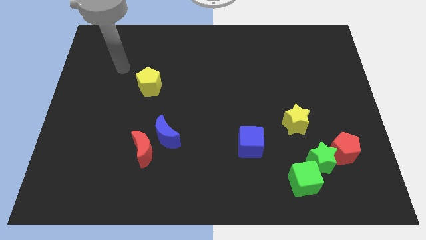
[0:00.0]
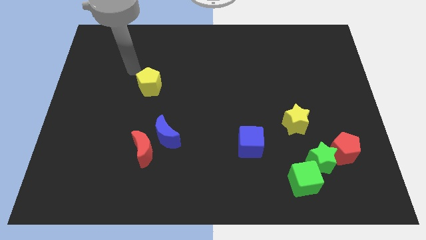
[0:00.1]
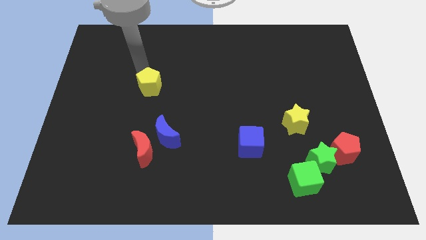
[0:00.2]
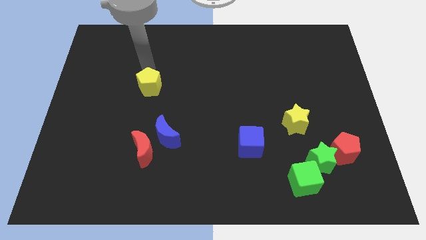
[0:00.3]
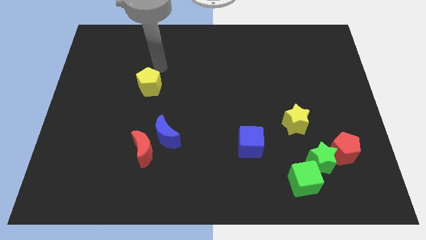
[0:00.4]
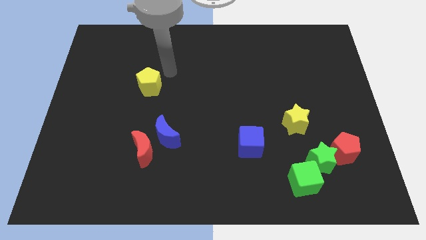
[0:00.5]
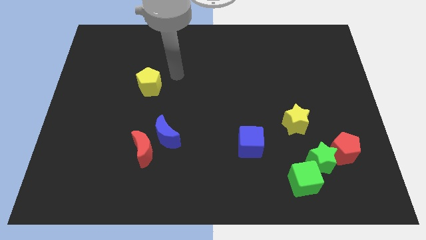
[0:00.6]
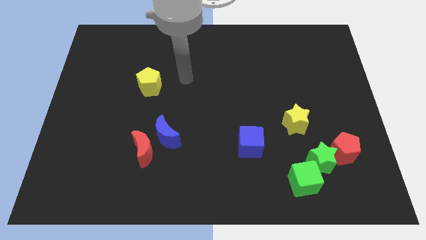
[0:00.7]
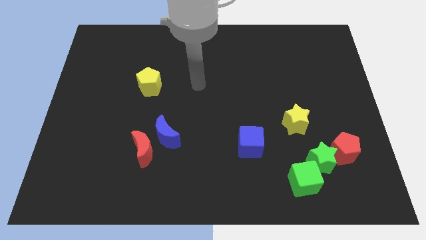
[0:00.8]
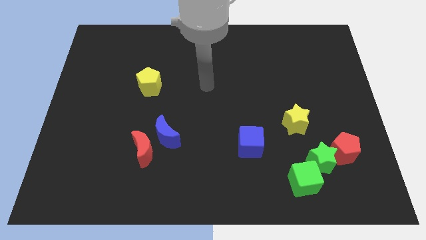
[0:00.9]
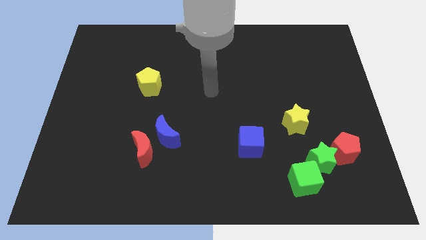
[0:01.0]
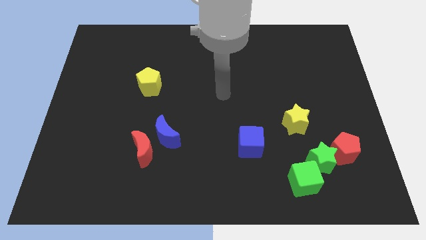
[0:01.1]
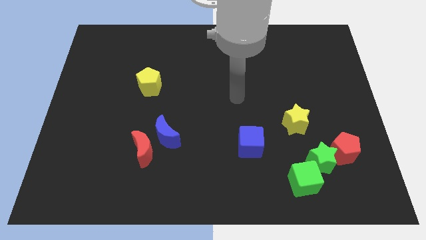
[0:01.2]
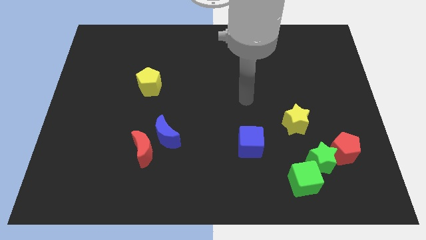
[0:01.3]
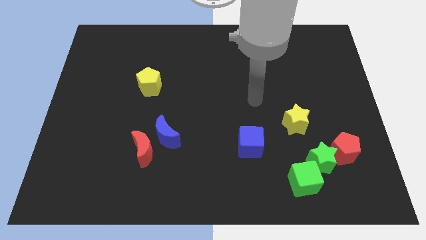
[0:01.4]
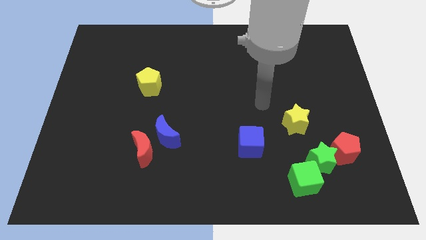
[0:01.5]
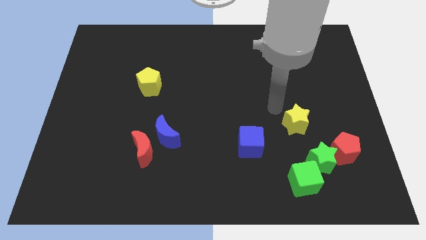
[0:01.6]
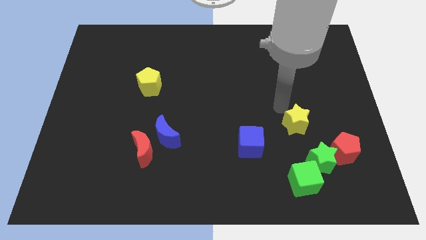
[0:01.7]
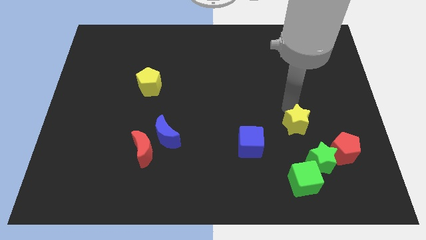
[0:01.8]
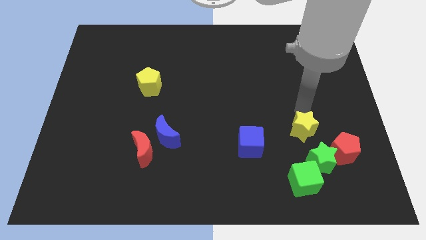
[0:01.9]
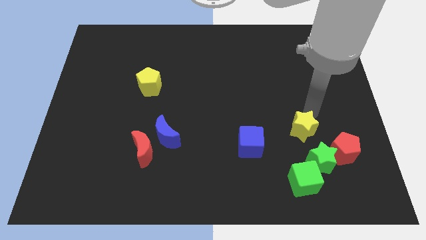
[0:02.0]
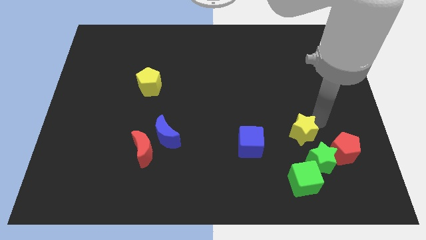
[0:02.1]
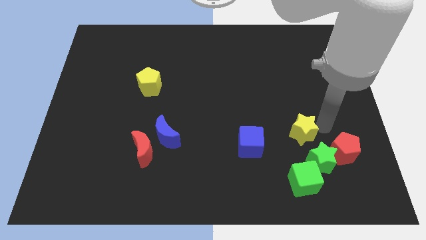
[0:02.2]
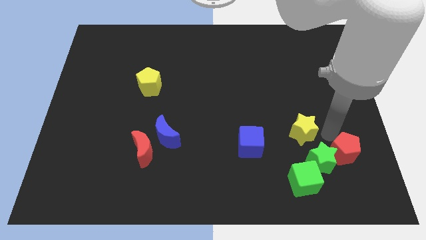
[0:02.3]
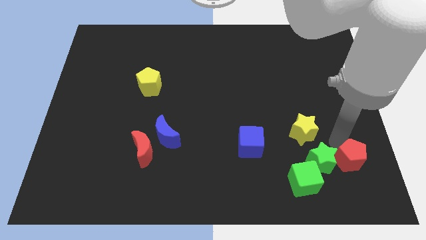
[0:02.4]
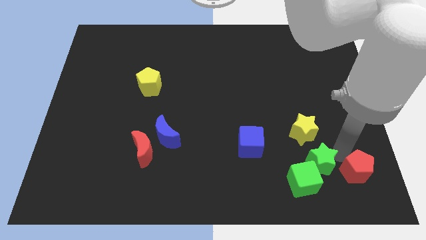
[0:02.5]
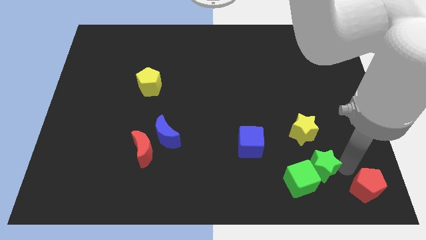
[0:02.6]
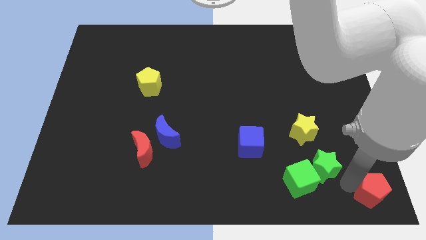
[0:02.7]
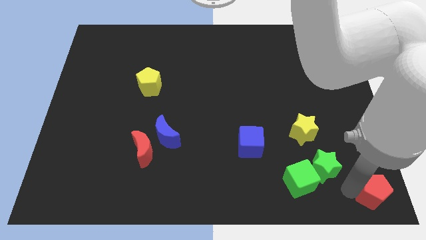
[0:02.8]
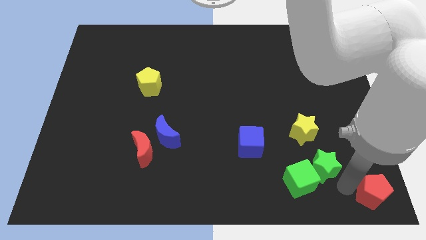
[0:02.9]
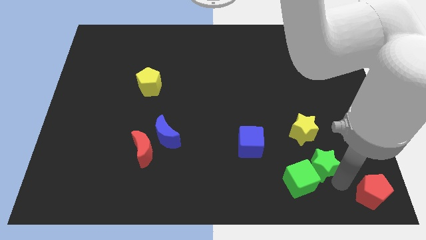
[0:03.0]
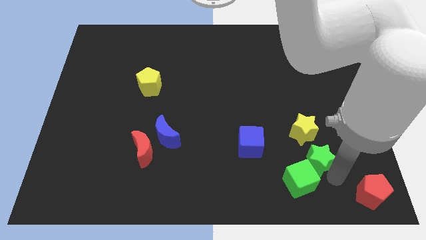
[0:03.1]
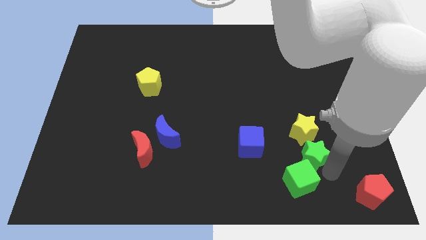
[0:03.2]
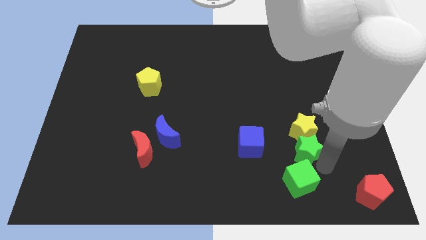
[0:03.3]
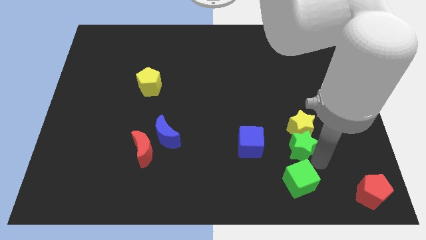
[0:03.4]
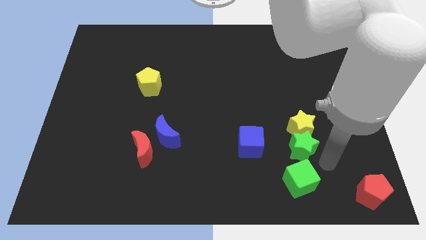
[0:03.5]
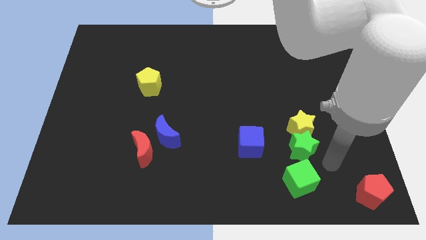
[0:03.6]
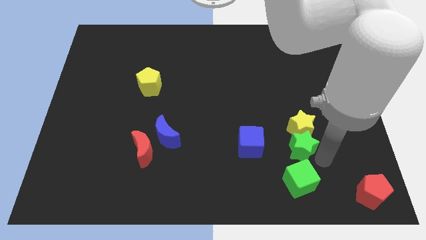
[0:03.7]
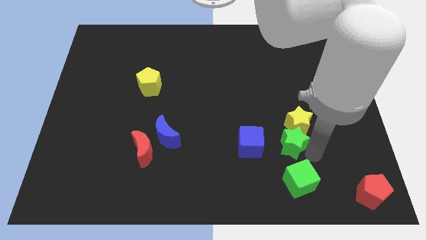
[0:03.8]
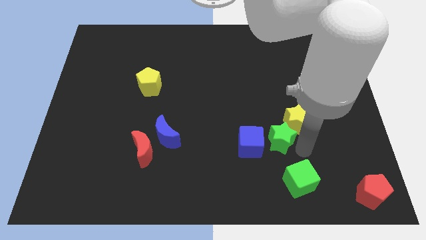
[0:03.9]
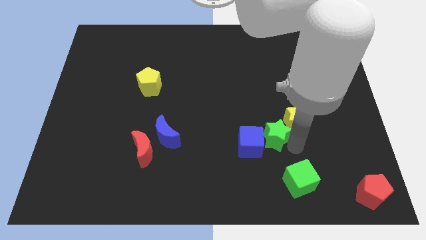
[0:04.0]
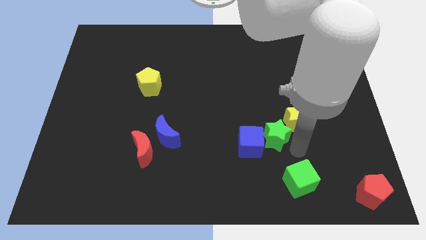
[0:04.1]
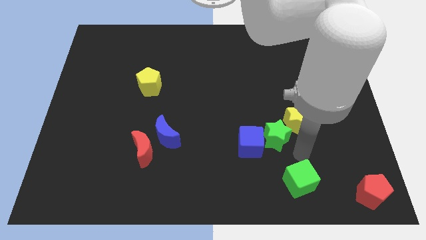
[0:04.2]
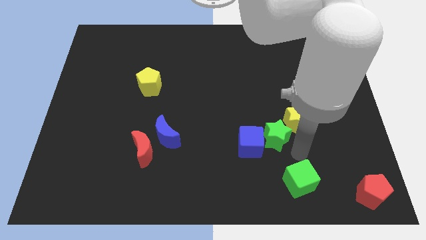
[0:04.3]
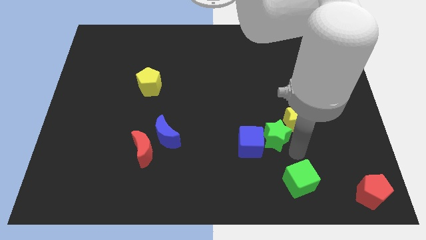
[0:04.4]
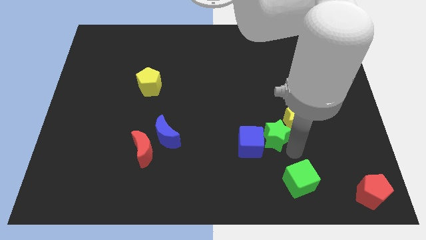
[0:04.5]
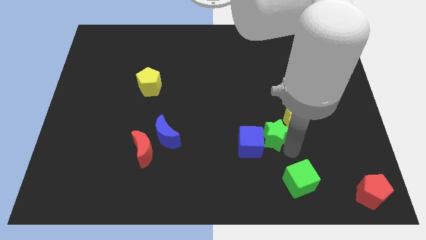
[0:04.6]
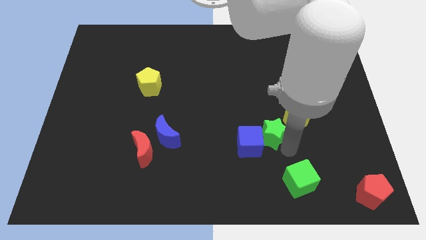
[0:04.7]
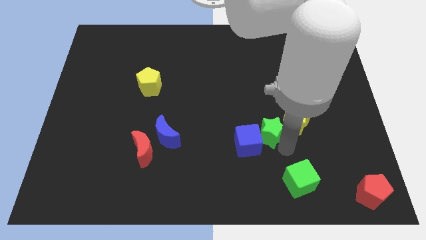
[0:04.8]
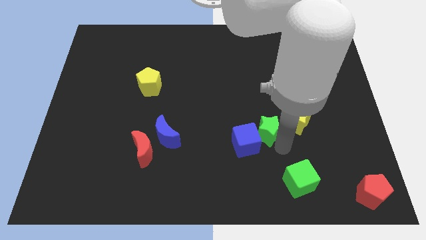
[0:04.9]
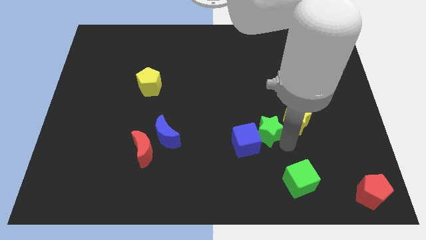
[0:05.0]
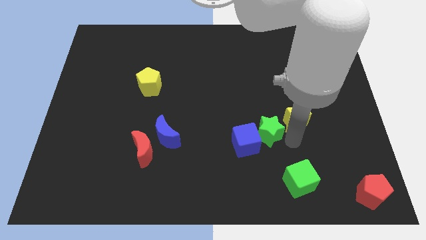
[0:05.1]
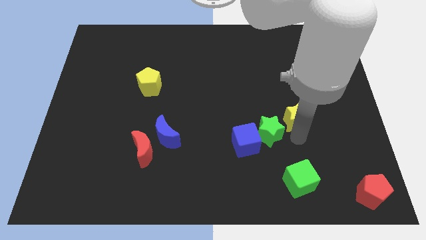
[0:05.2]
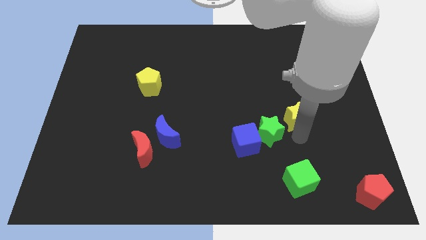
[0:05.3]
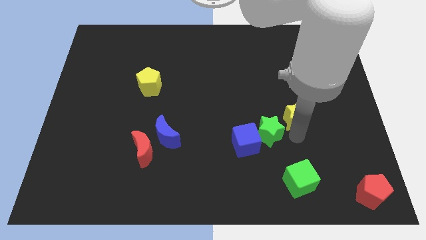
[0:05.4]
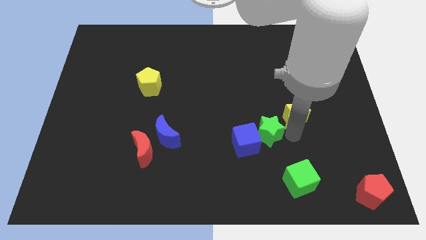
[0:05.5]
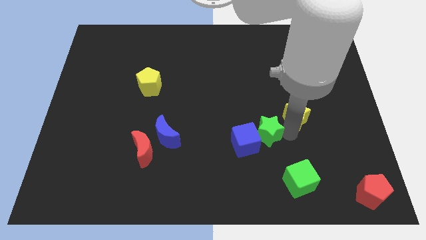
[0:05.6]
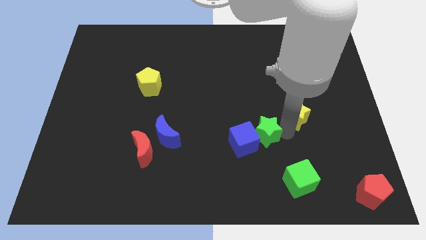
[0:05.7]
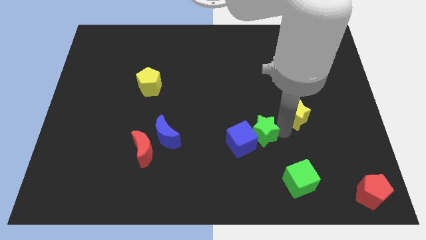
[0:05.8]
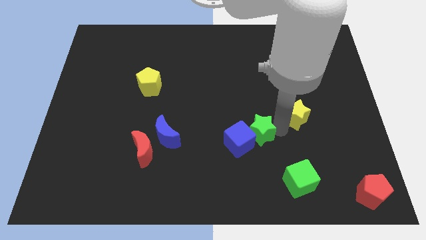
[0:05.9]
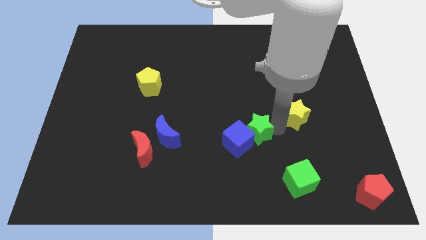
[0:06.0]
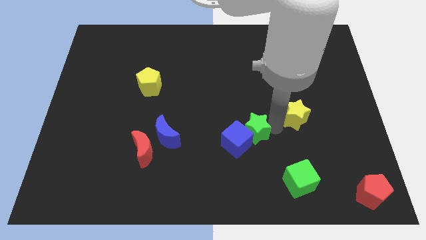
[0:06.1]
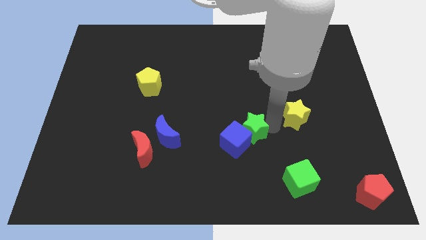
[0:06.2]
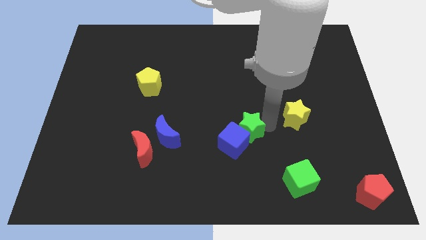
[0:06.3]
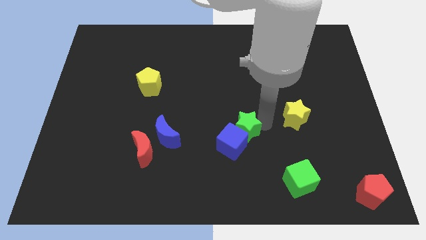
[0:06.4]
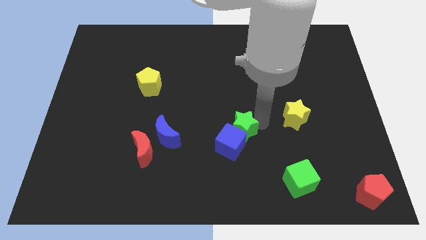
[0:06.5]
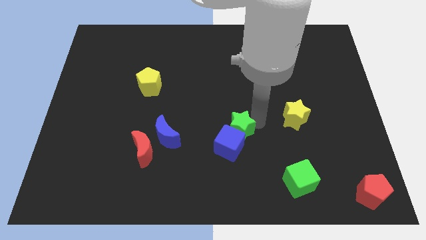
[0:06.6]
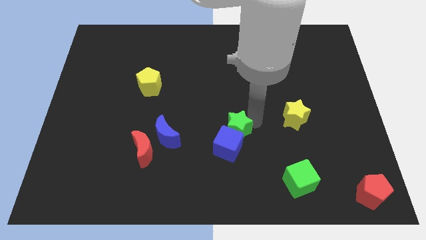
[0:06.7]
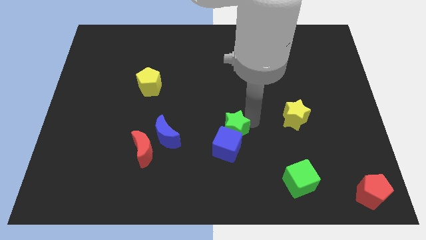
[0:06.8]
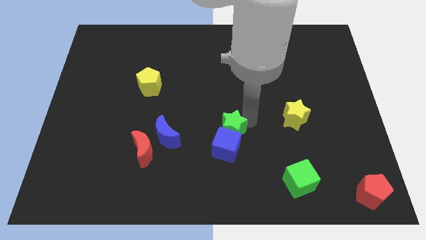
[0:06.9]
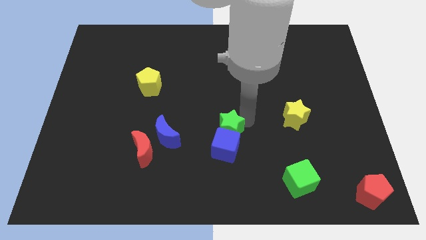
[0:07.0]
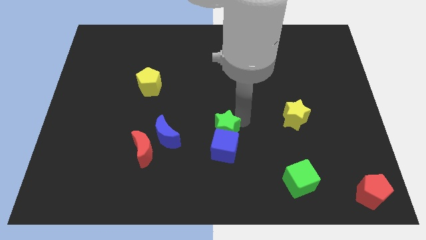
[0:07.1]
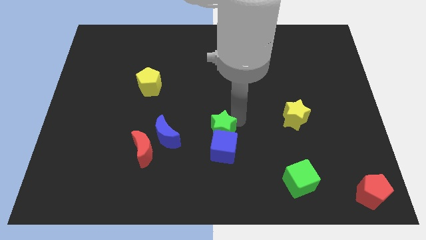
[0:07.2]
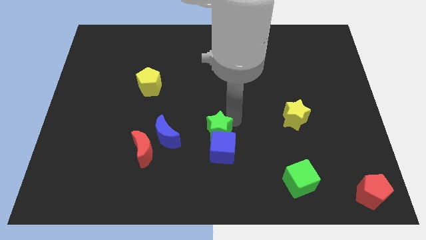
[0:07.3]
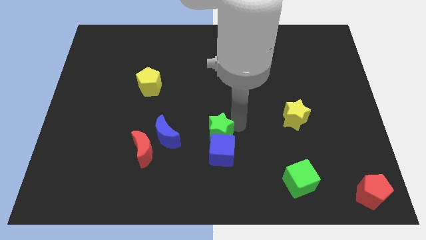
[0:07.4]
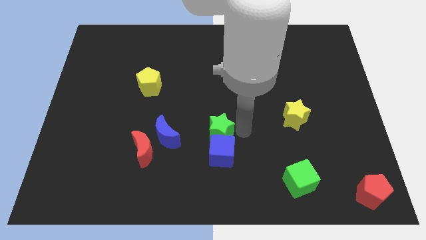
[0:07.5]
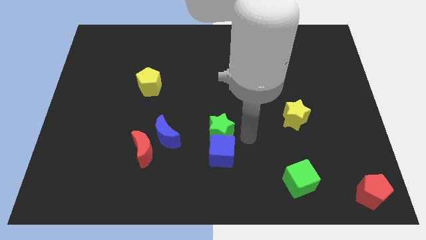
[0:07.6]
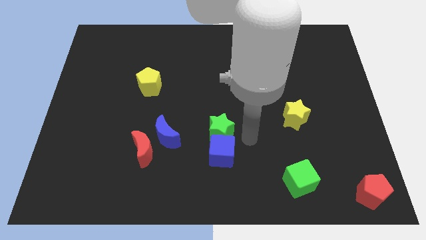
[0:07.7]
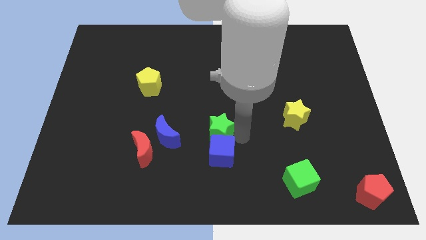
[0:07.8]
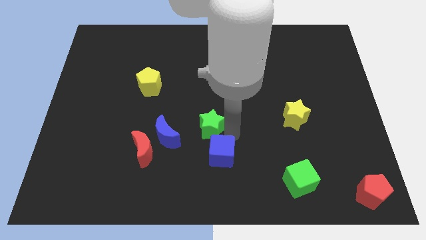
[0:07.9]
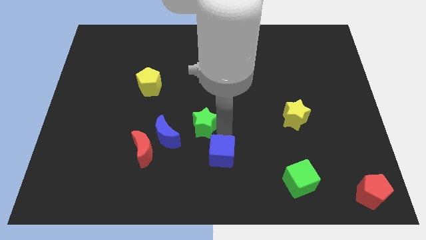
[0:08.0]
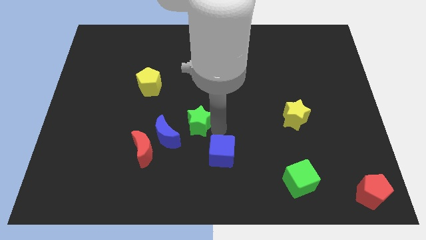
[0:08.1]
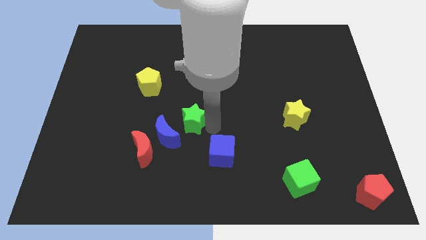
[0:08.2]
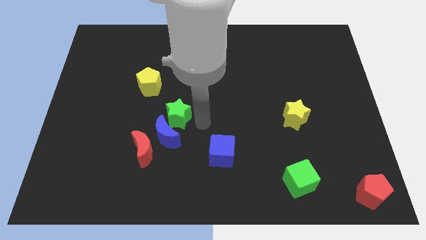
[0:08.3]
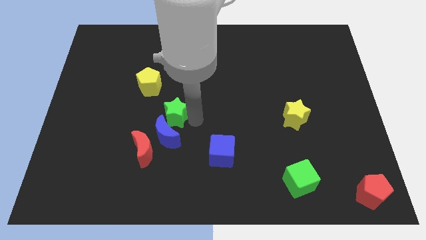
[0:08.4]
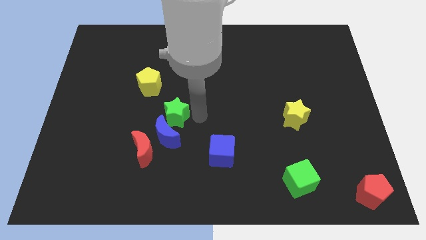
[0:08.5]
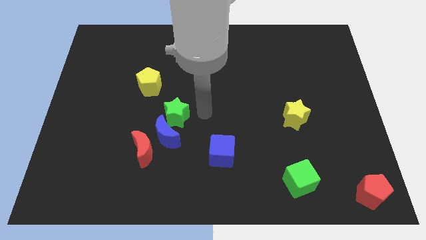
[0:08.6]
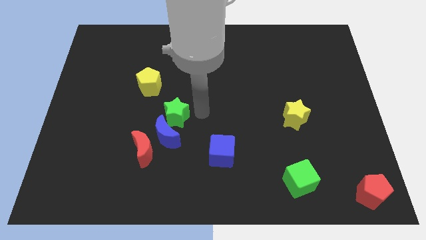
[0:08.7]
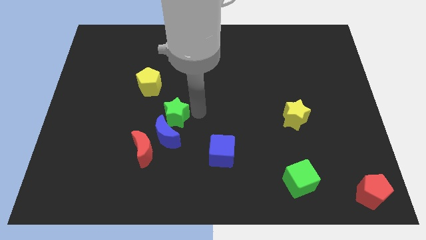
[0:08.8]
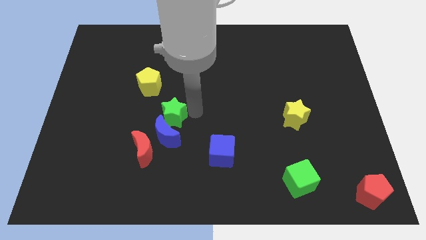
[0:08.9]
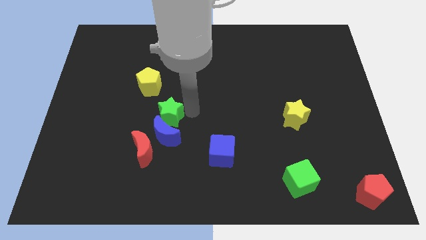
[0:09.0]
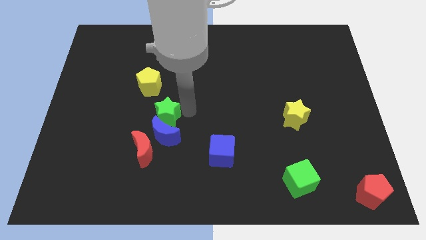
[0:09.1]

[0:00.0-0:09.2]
slide the green star to the bottom side of the yellow pentagon
